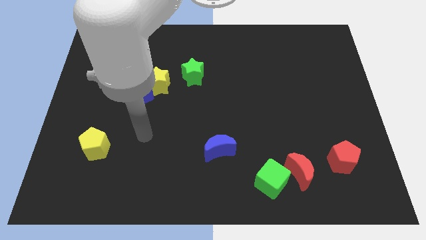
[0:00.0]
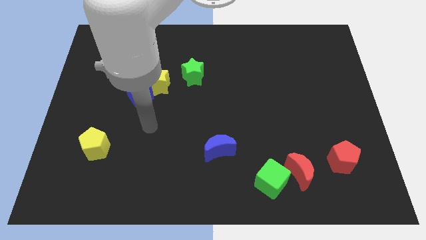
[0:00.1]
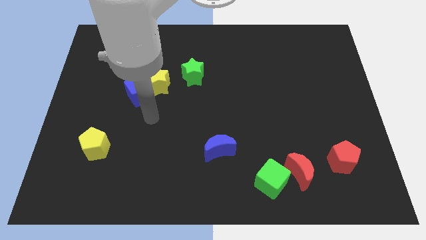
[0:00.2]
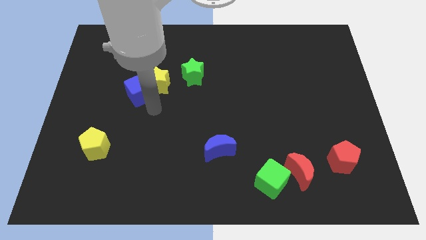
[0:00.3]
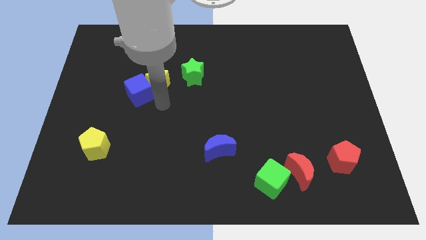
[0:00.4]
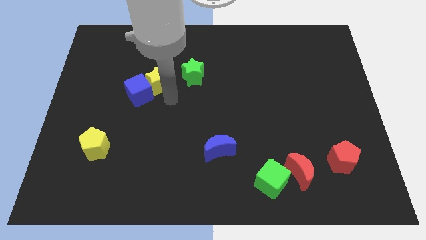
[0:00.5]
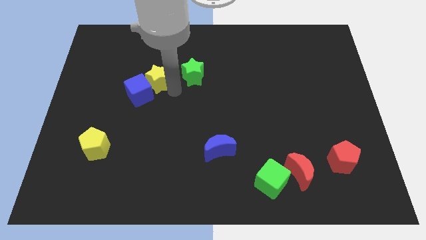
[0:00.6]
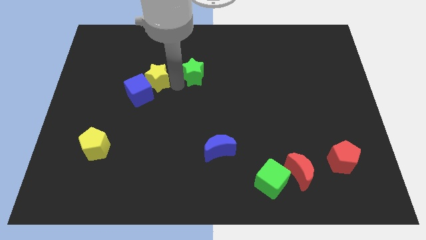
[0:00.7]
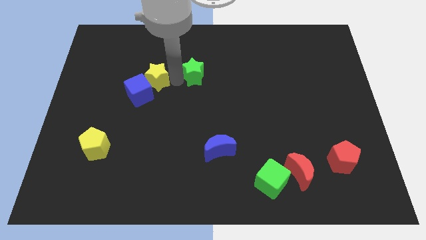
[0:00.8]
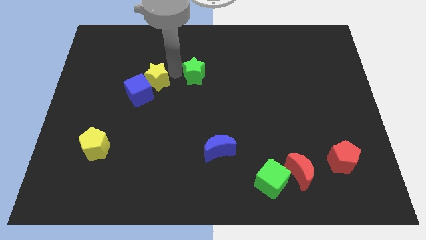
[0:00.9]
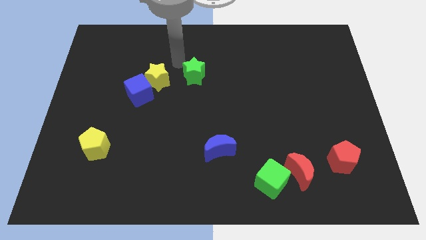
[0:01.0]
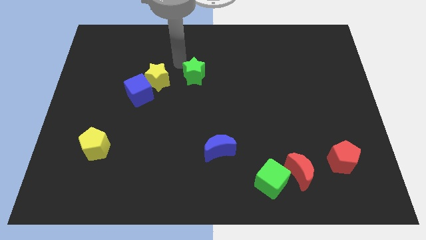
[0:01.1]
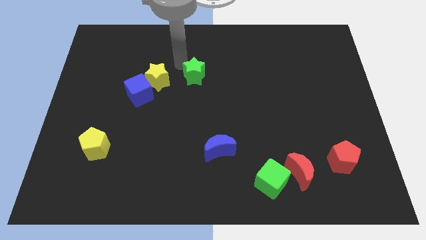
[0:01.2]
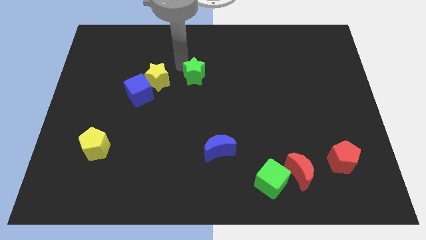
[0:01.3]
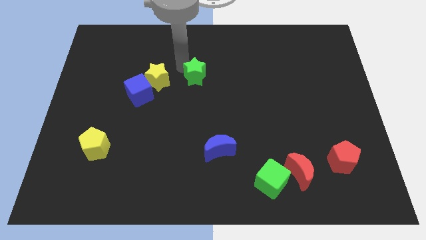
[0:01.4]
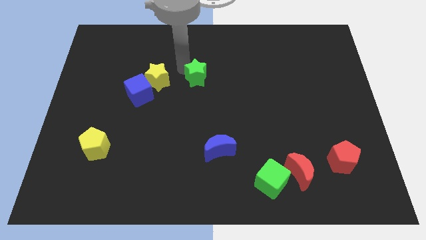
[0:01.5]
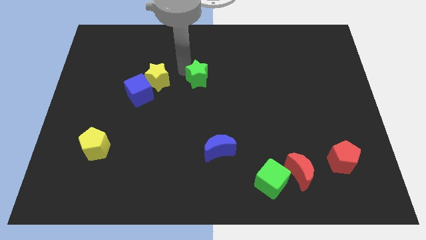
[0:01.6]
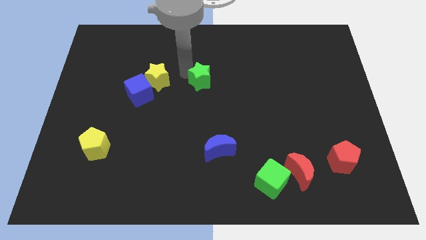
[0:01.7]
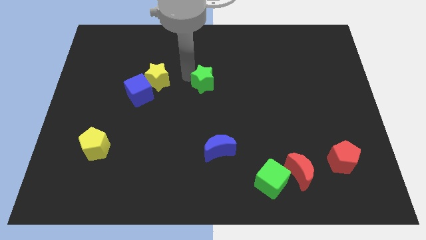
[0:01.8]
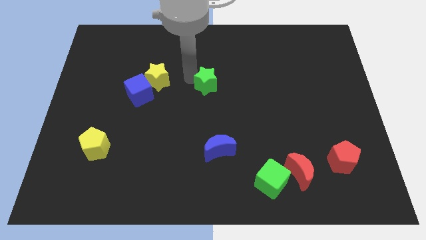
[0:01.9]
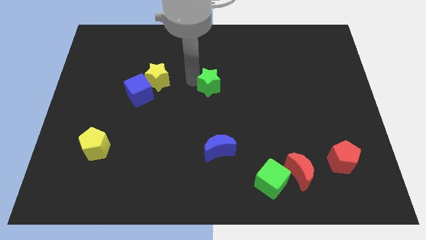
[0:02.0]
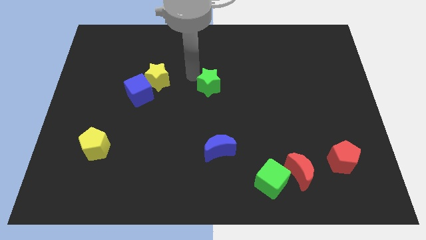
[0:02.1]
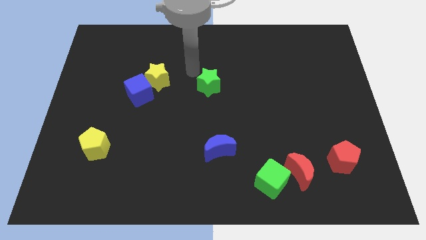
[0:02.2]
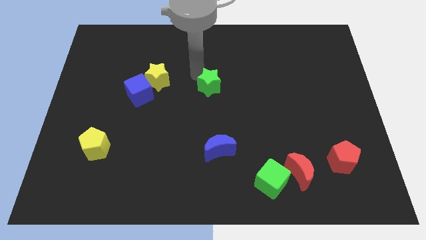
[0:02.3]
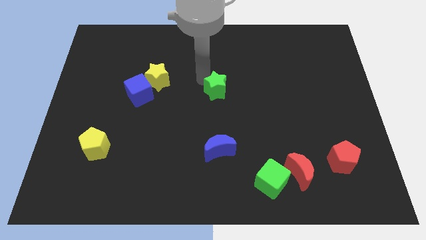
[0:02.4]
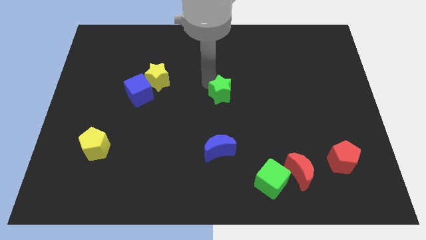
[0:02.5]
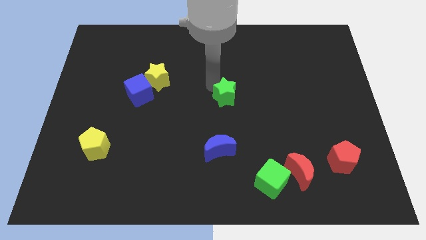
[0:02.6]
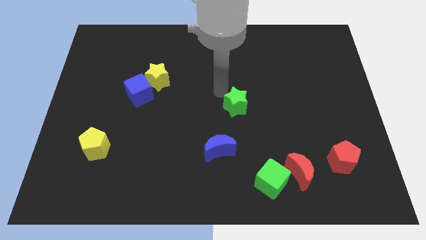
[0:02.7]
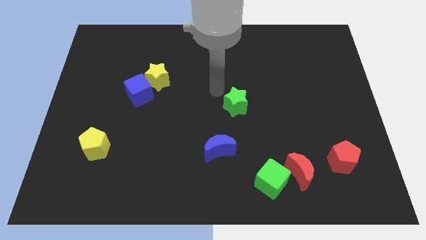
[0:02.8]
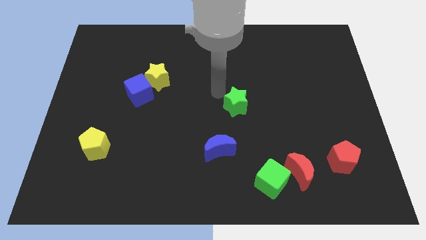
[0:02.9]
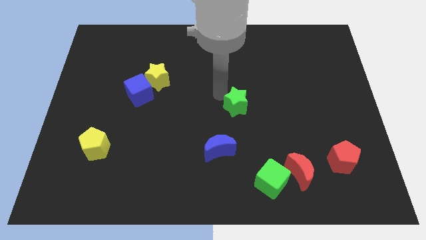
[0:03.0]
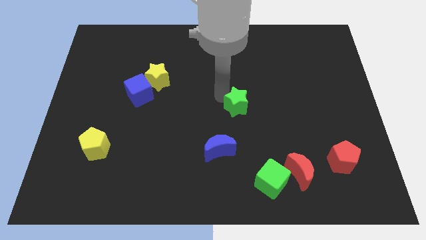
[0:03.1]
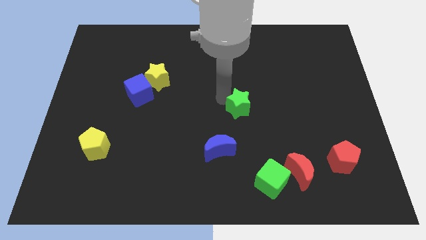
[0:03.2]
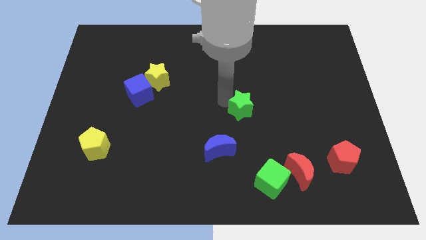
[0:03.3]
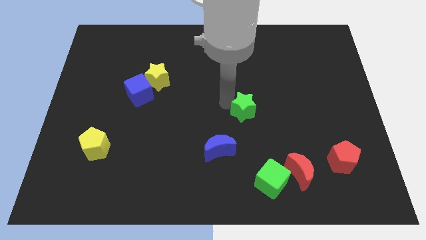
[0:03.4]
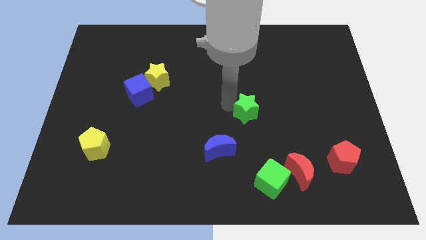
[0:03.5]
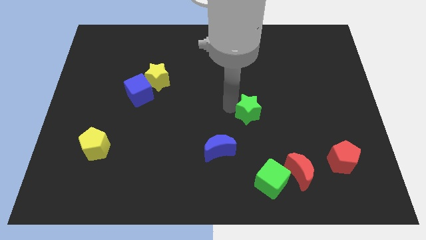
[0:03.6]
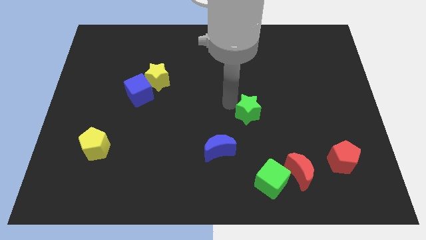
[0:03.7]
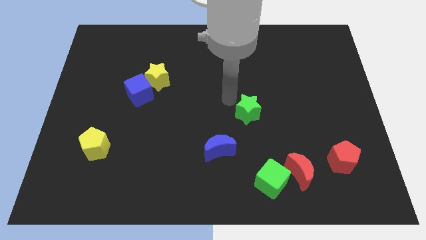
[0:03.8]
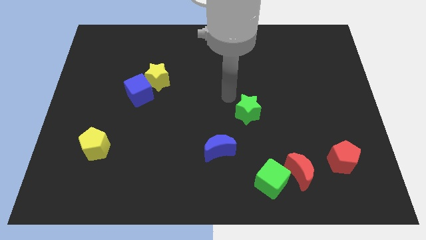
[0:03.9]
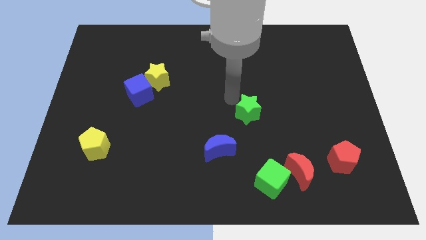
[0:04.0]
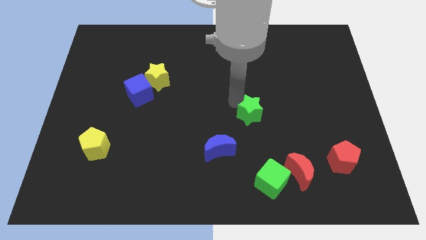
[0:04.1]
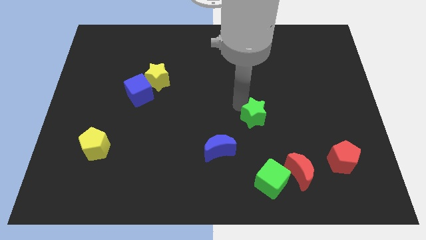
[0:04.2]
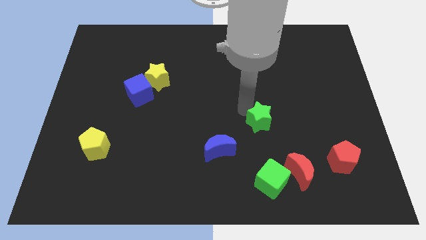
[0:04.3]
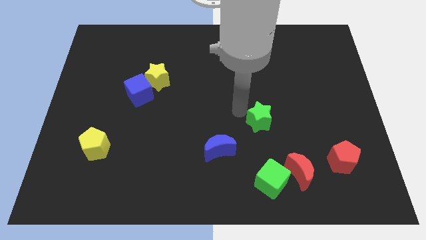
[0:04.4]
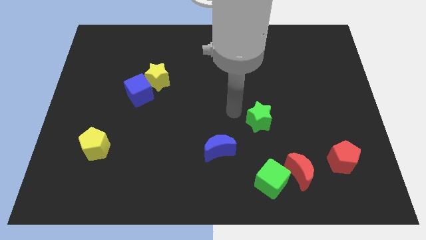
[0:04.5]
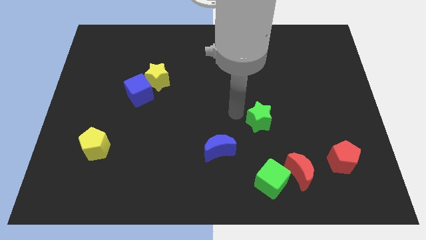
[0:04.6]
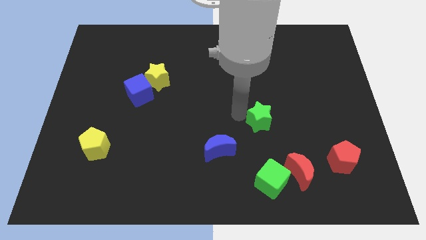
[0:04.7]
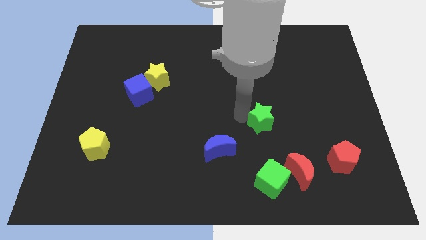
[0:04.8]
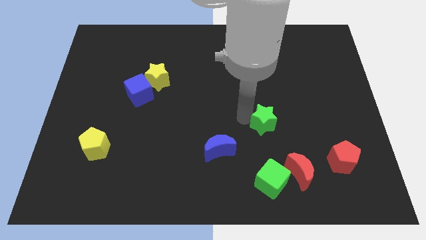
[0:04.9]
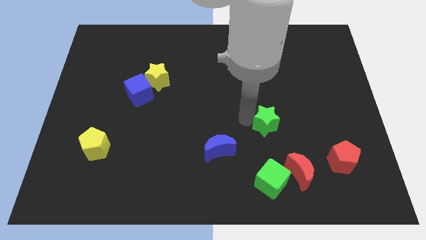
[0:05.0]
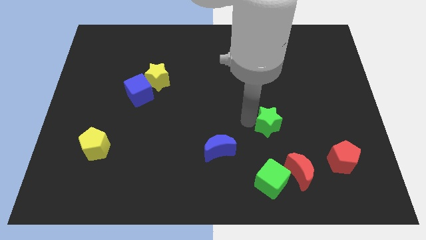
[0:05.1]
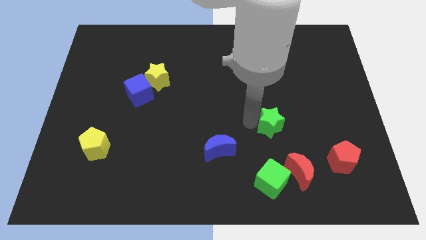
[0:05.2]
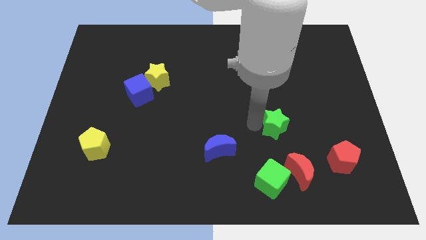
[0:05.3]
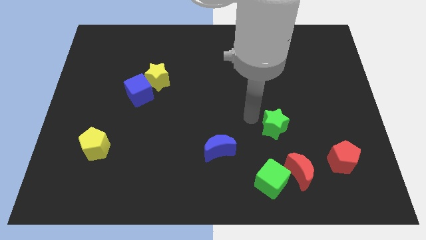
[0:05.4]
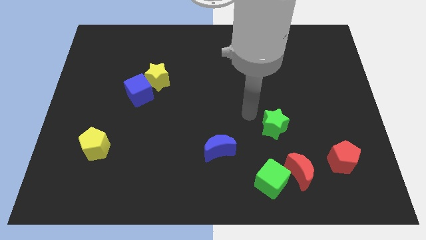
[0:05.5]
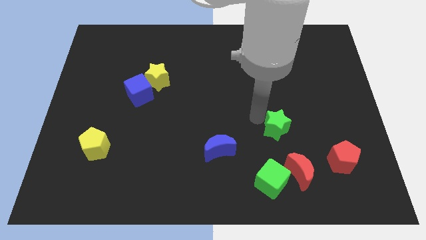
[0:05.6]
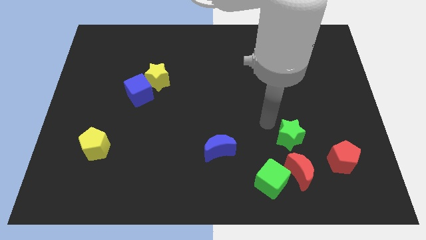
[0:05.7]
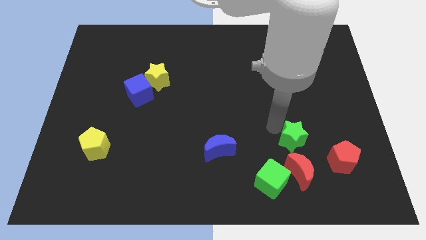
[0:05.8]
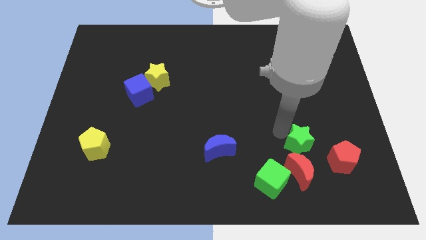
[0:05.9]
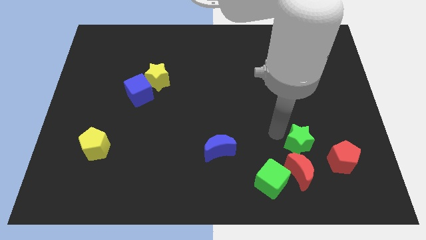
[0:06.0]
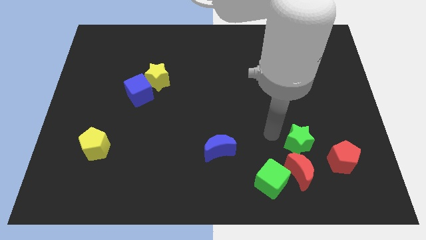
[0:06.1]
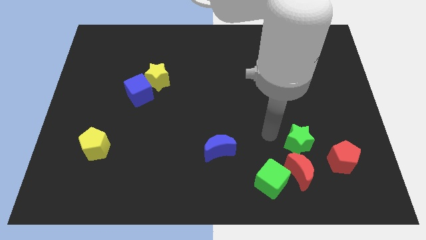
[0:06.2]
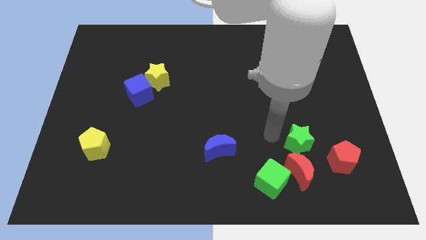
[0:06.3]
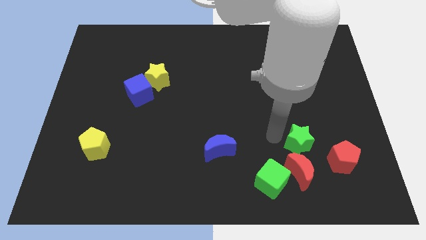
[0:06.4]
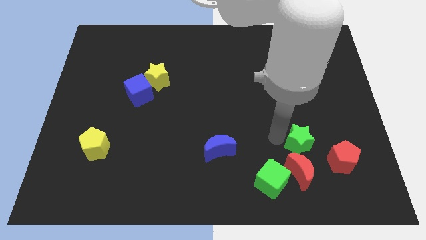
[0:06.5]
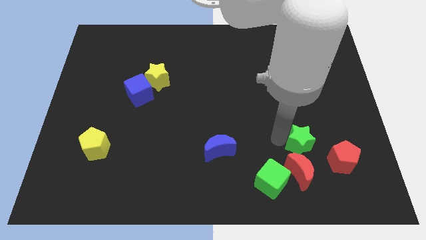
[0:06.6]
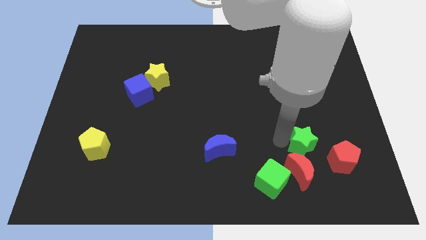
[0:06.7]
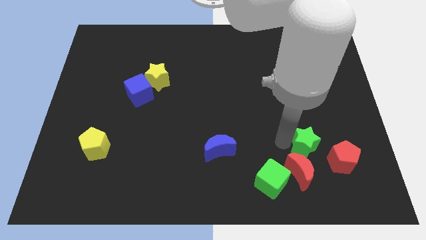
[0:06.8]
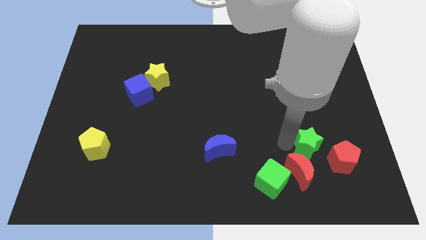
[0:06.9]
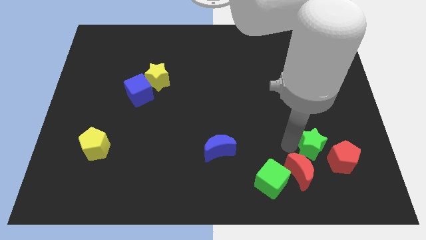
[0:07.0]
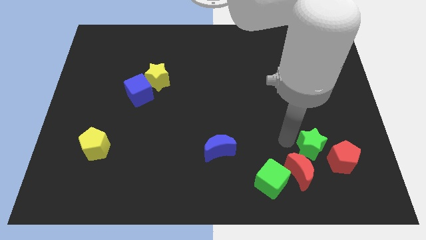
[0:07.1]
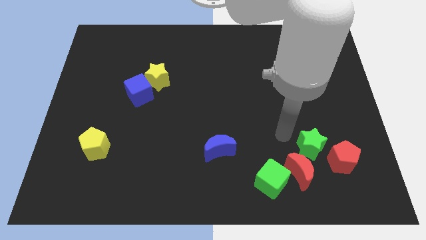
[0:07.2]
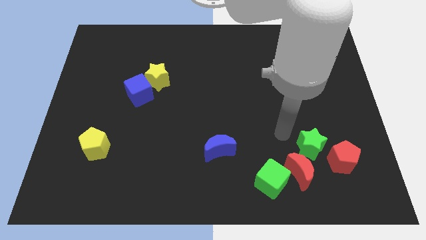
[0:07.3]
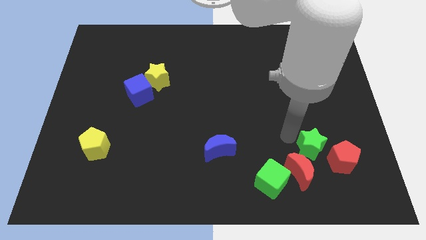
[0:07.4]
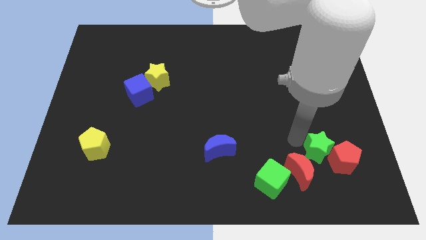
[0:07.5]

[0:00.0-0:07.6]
put the green star close to the red pentagon
